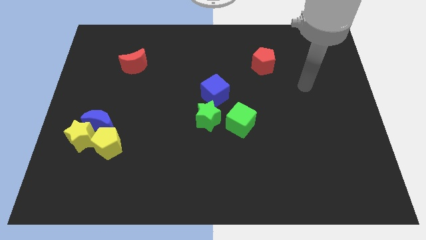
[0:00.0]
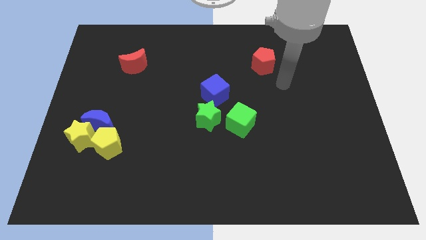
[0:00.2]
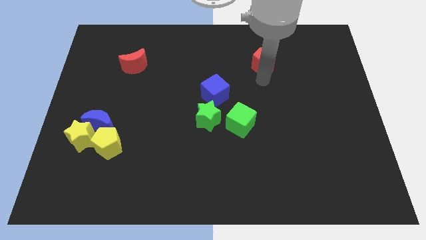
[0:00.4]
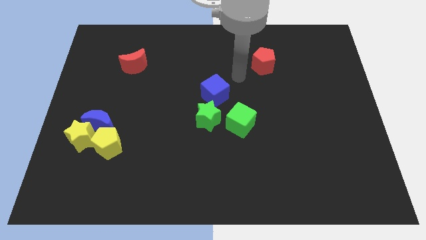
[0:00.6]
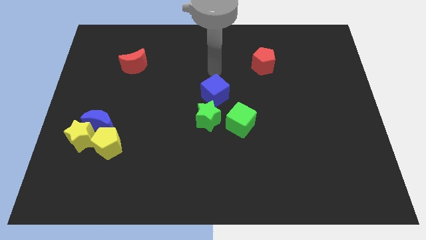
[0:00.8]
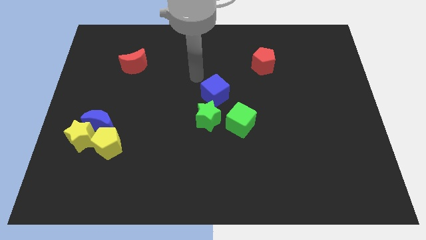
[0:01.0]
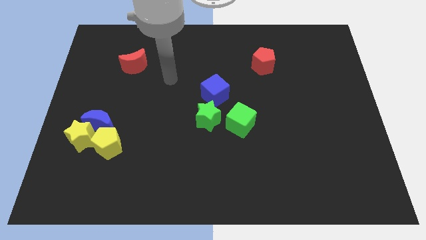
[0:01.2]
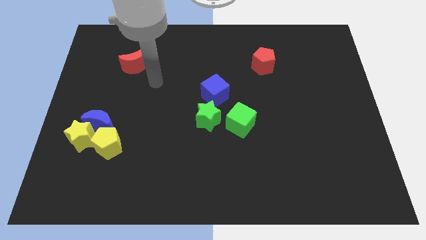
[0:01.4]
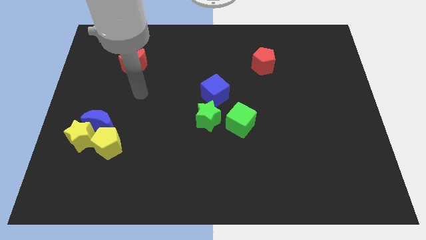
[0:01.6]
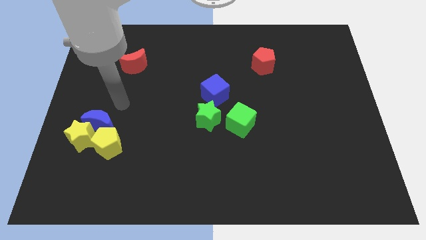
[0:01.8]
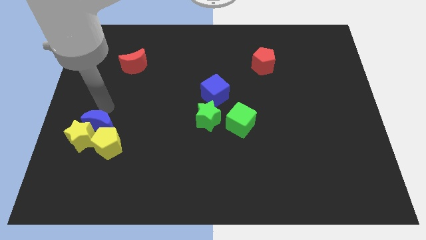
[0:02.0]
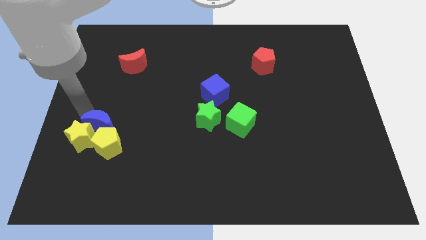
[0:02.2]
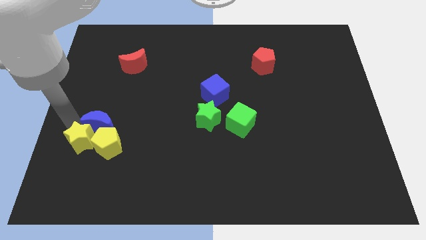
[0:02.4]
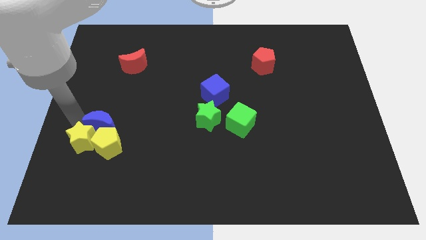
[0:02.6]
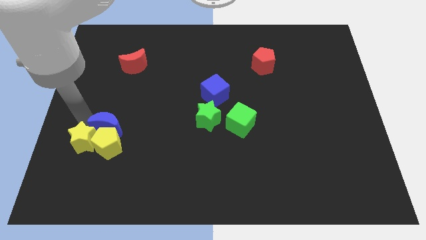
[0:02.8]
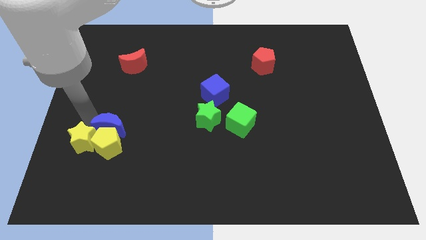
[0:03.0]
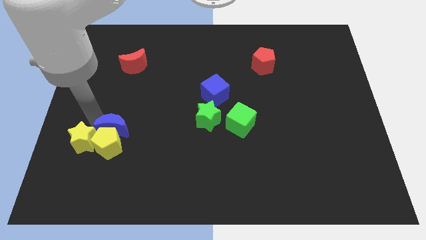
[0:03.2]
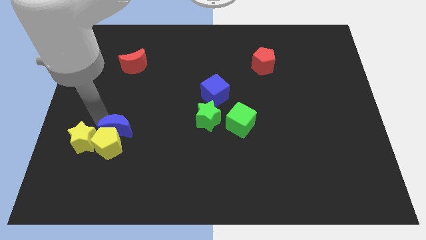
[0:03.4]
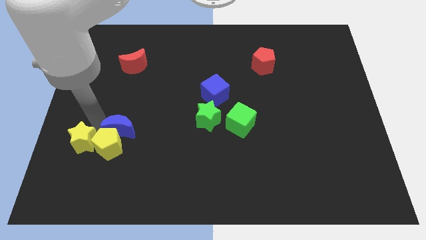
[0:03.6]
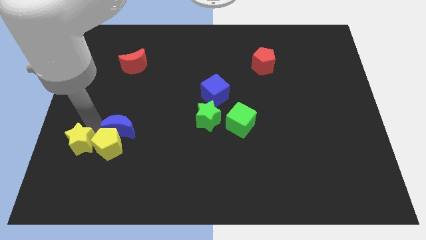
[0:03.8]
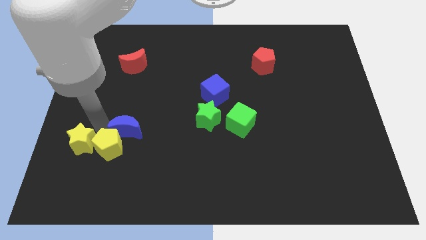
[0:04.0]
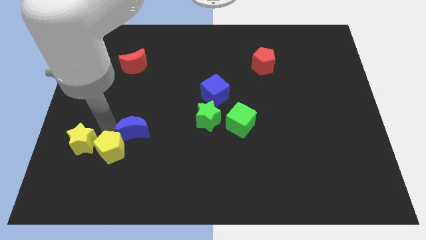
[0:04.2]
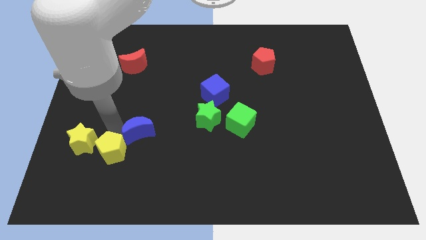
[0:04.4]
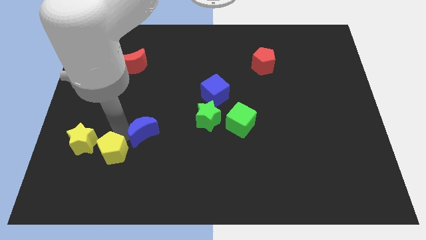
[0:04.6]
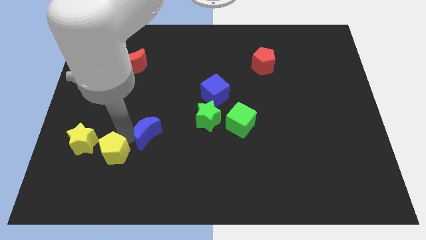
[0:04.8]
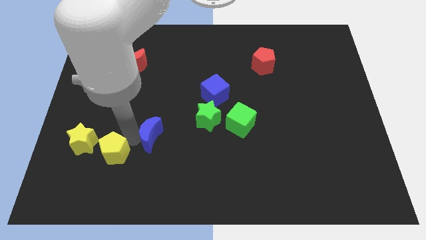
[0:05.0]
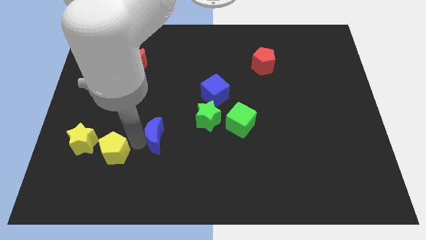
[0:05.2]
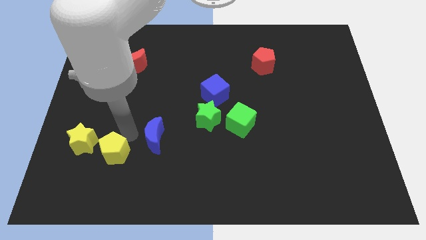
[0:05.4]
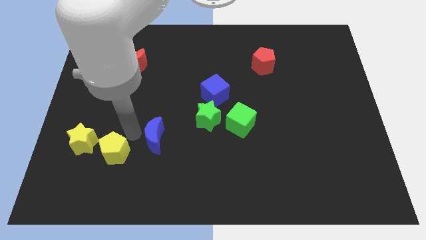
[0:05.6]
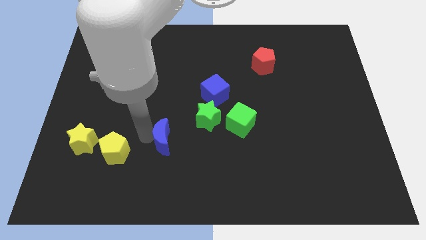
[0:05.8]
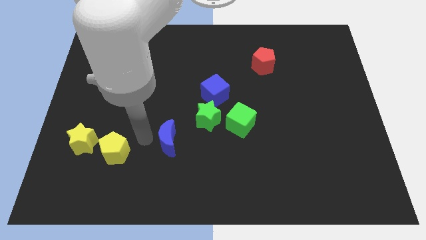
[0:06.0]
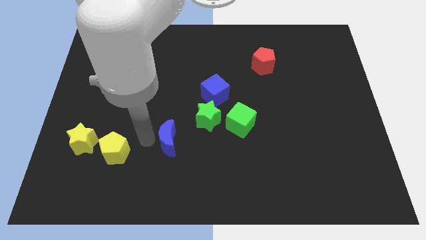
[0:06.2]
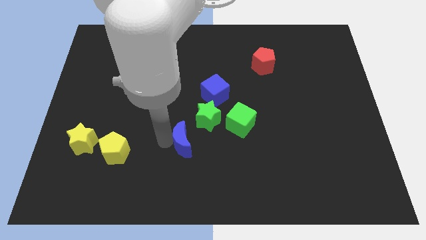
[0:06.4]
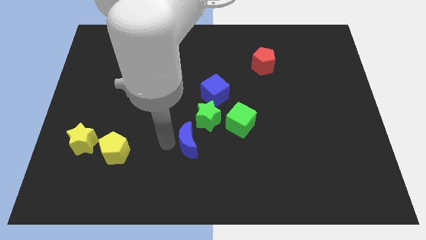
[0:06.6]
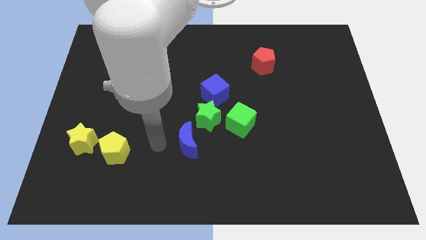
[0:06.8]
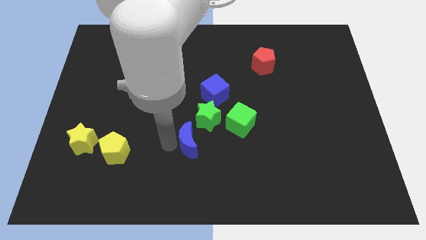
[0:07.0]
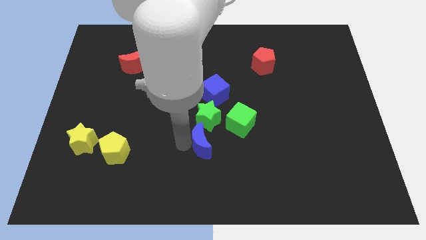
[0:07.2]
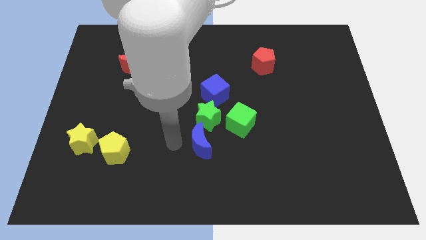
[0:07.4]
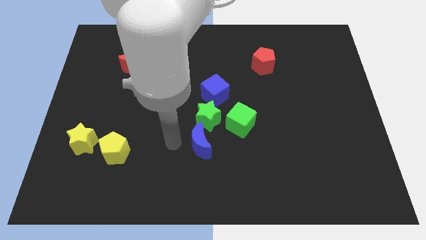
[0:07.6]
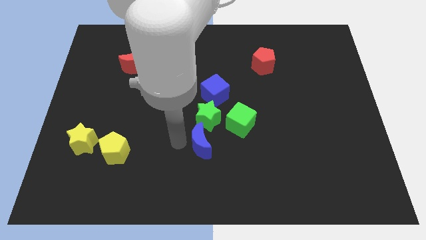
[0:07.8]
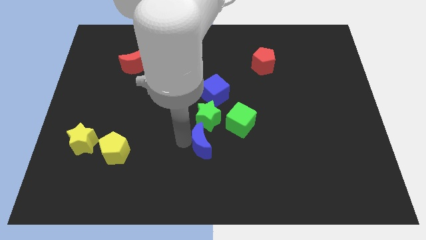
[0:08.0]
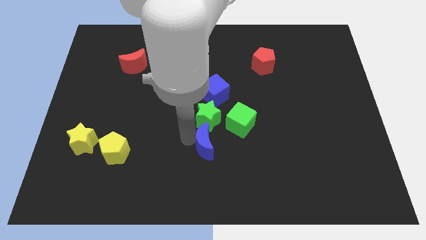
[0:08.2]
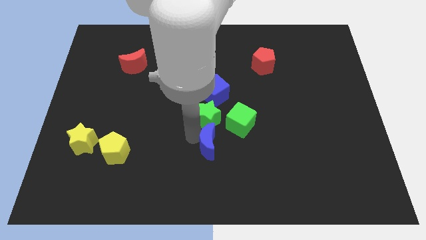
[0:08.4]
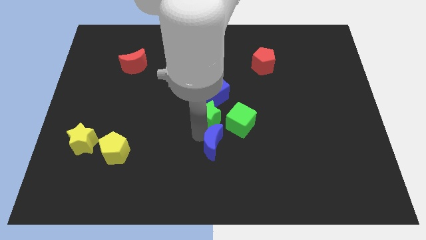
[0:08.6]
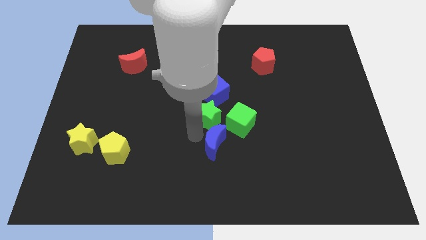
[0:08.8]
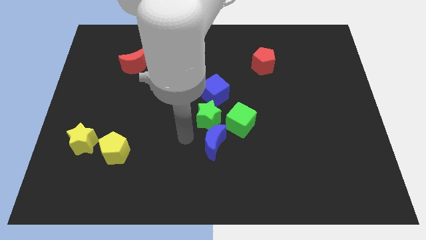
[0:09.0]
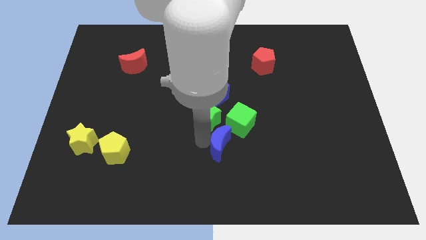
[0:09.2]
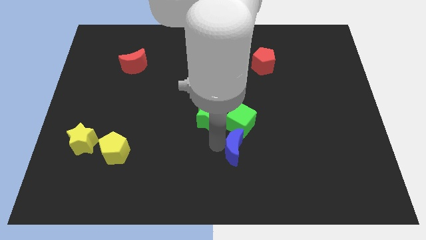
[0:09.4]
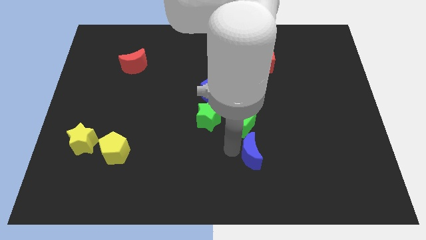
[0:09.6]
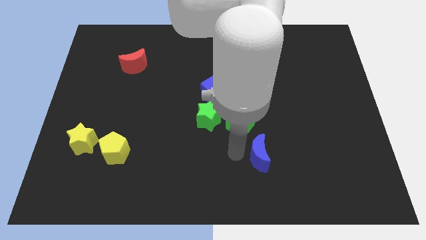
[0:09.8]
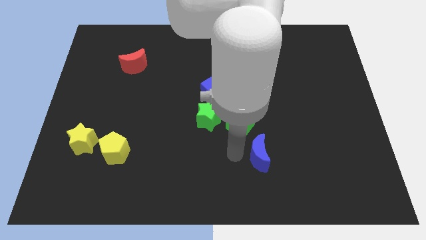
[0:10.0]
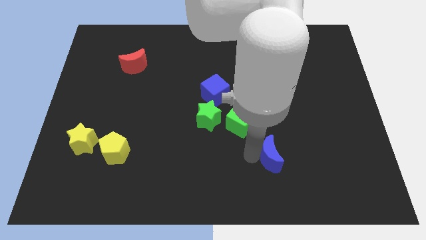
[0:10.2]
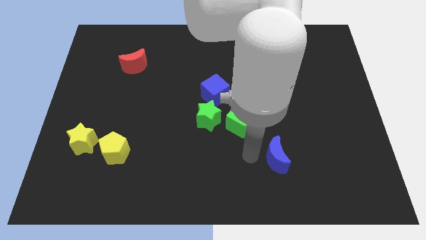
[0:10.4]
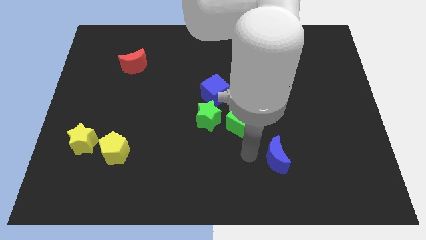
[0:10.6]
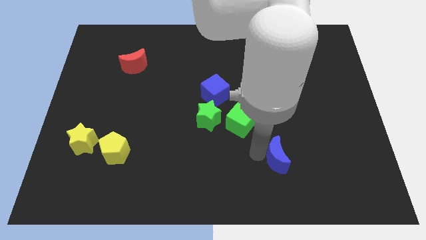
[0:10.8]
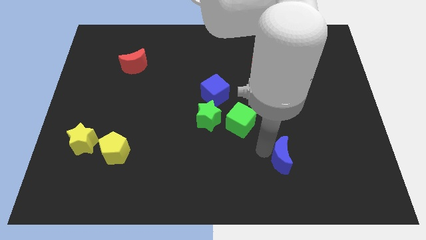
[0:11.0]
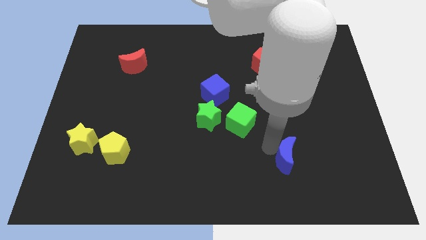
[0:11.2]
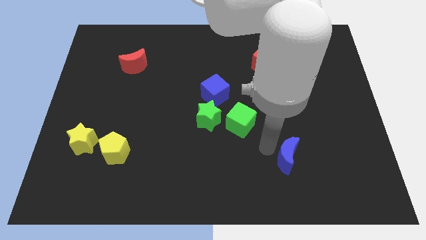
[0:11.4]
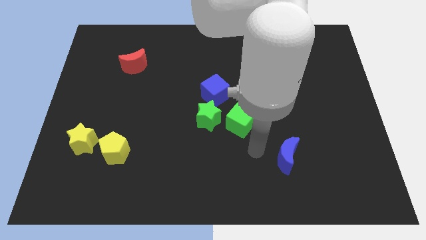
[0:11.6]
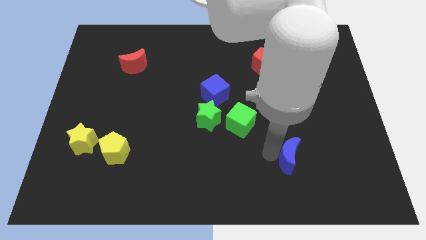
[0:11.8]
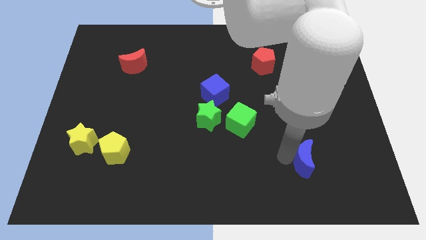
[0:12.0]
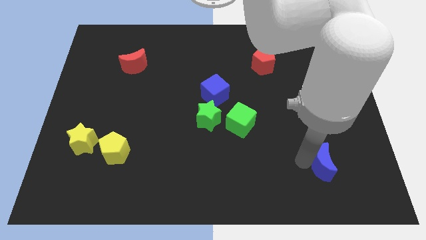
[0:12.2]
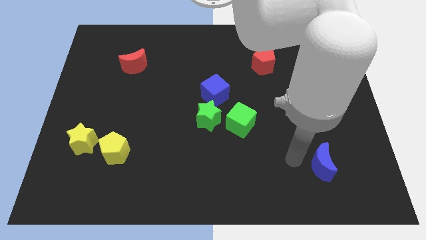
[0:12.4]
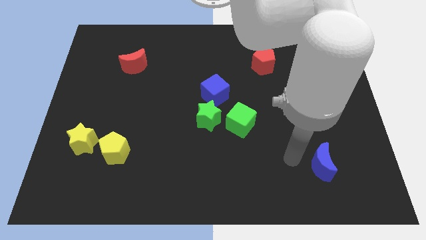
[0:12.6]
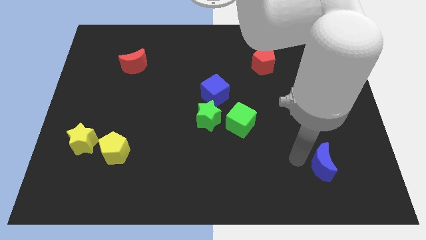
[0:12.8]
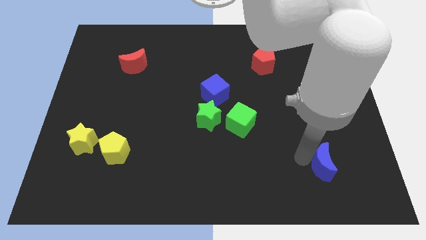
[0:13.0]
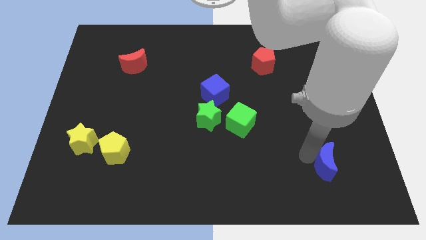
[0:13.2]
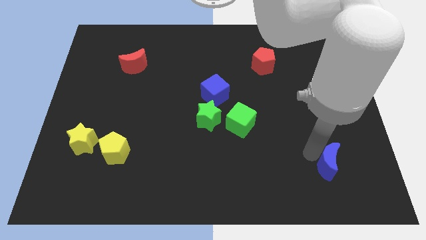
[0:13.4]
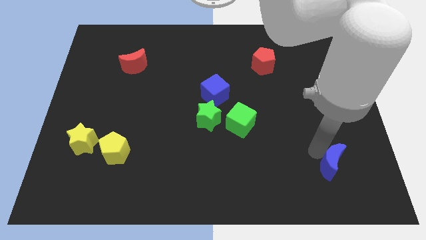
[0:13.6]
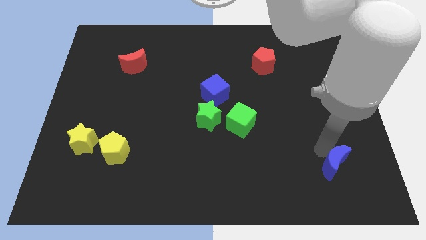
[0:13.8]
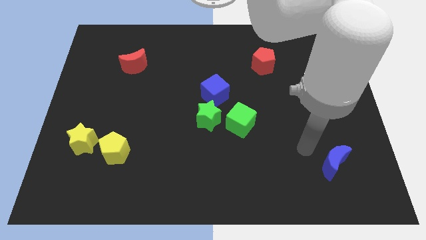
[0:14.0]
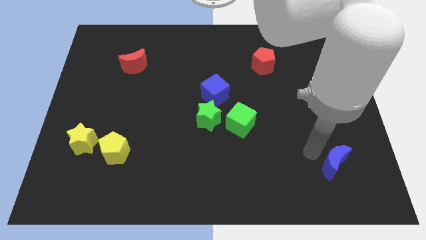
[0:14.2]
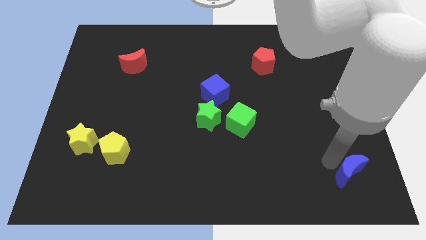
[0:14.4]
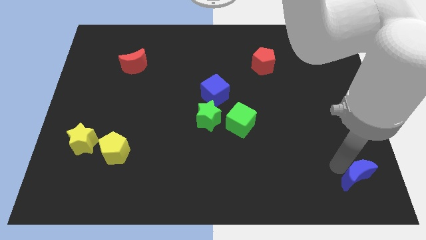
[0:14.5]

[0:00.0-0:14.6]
push the blue moon to the bottom right corner
